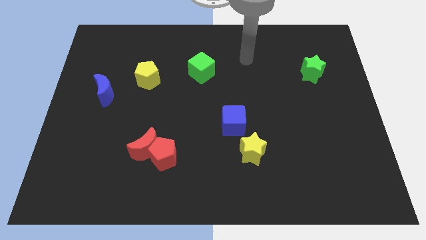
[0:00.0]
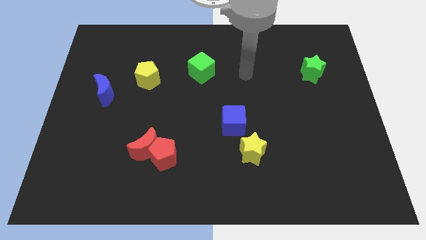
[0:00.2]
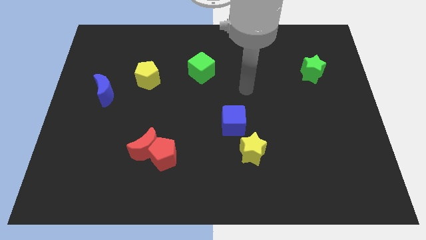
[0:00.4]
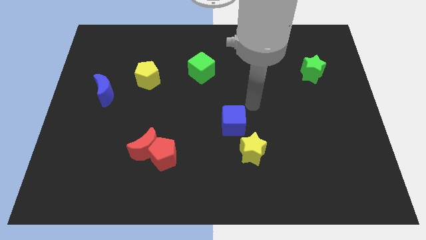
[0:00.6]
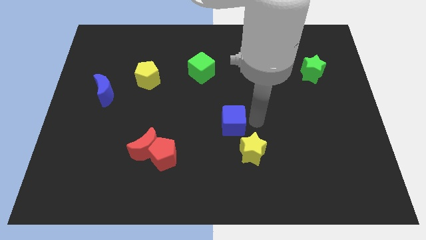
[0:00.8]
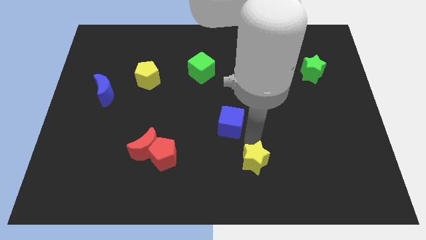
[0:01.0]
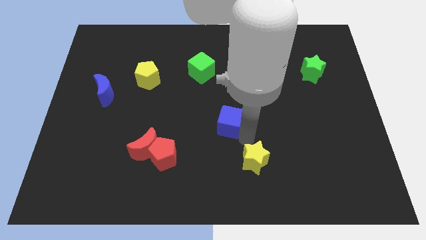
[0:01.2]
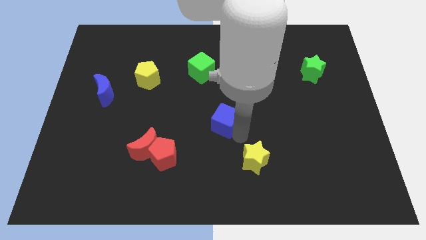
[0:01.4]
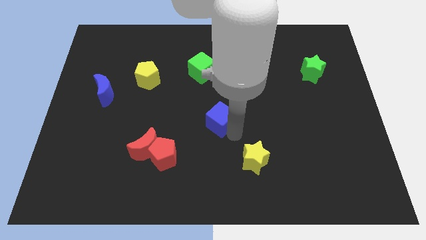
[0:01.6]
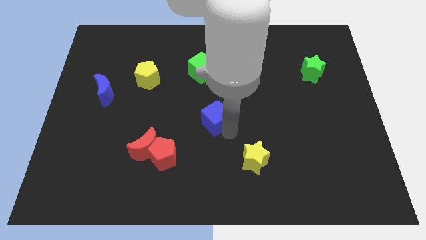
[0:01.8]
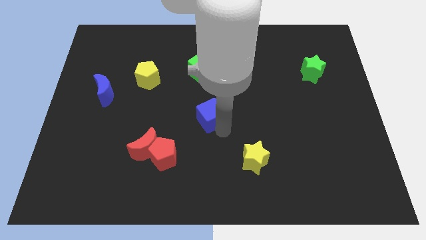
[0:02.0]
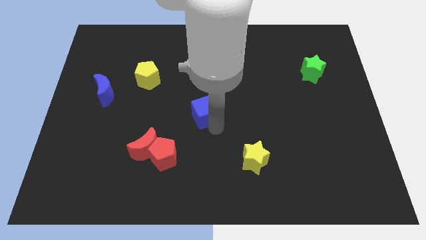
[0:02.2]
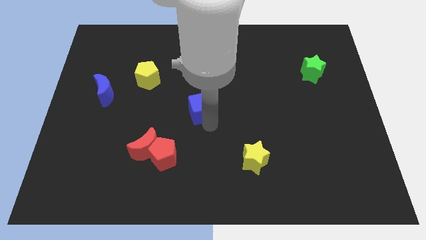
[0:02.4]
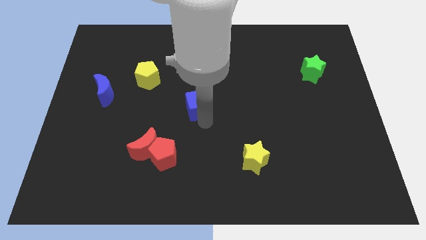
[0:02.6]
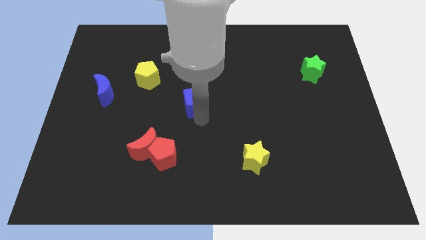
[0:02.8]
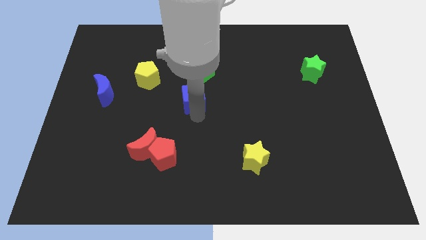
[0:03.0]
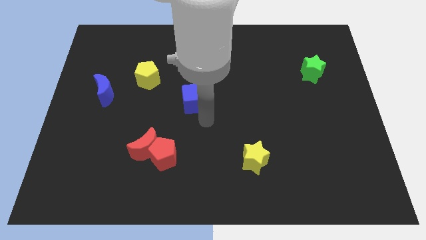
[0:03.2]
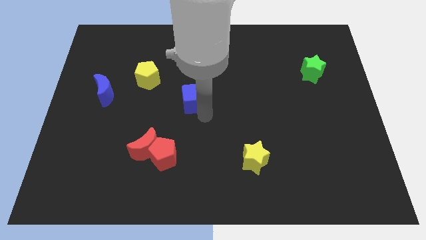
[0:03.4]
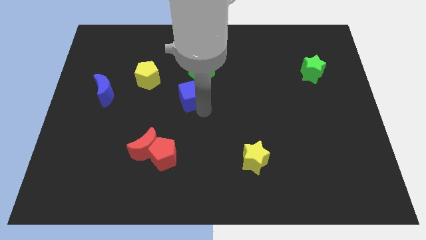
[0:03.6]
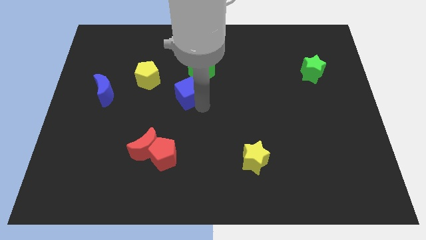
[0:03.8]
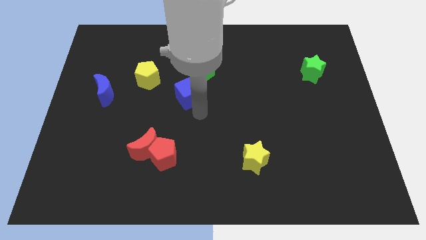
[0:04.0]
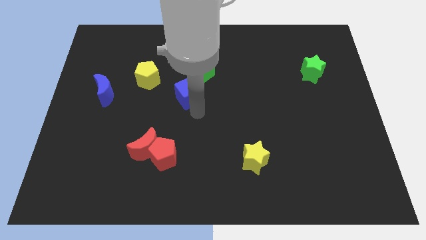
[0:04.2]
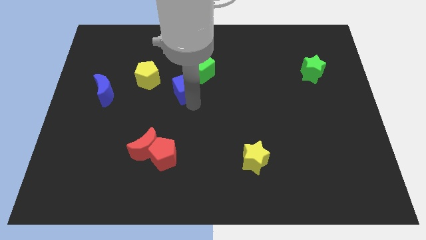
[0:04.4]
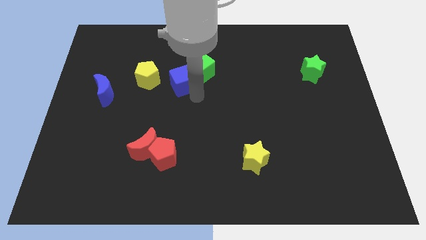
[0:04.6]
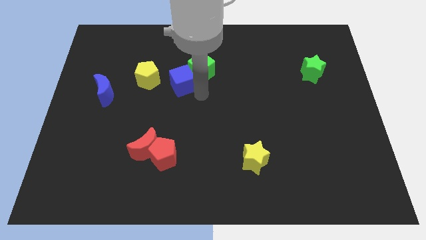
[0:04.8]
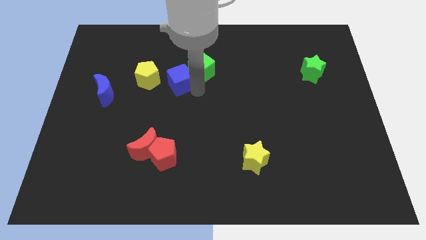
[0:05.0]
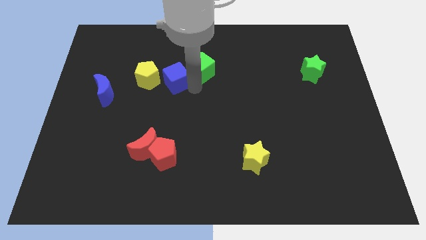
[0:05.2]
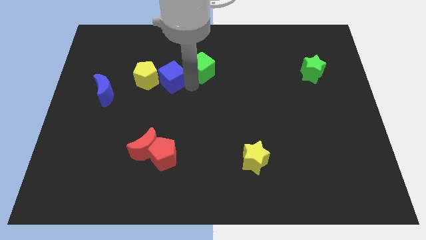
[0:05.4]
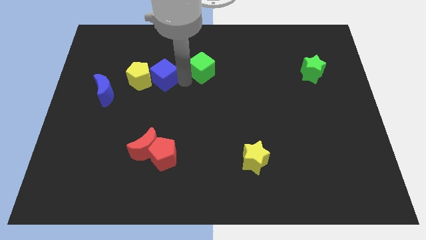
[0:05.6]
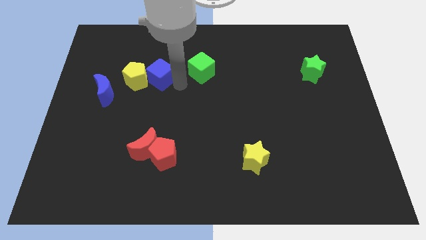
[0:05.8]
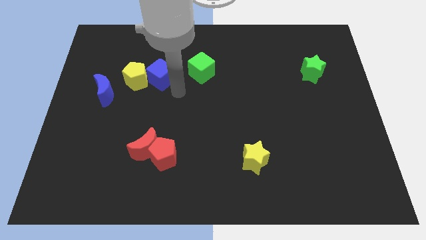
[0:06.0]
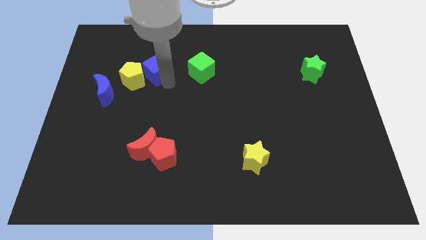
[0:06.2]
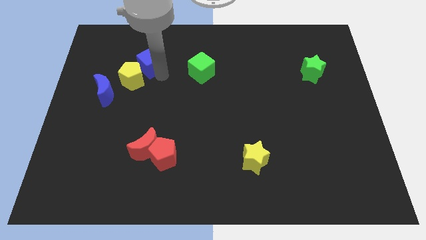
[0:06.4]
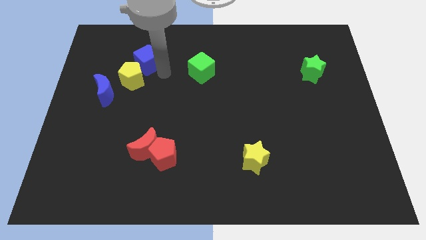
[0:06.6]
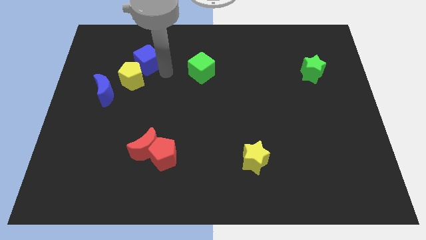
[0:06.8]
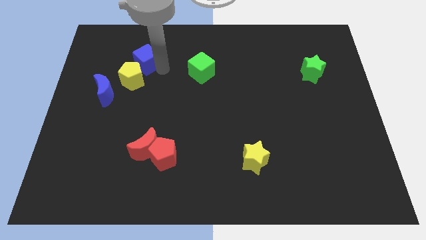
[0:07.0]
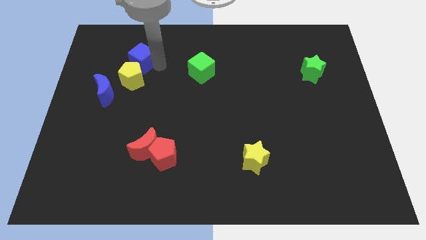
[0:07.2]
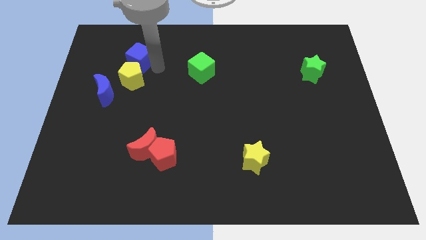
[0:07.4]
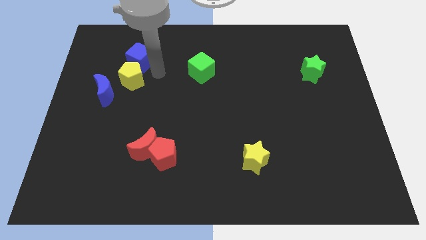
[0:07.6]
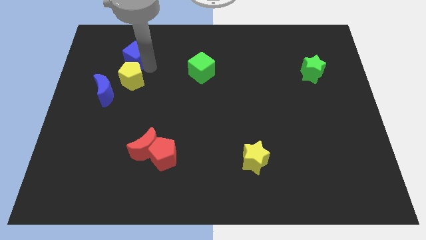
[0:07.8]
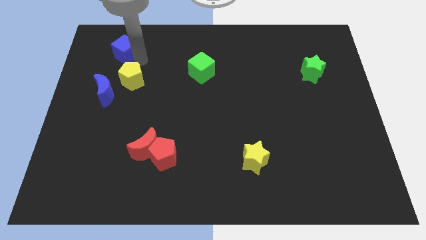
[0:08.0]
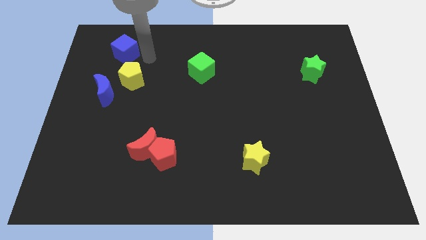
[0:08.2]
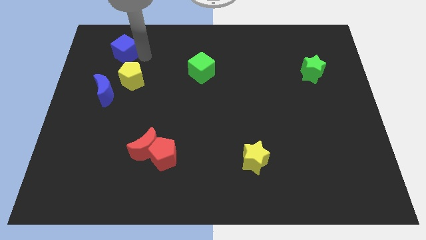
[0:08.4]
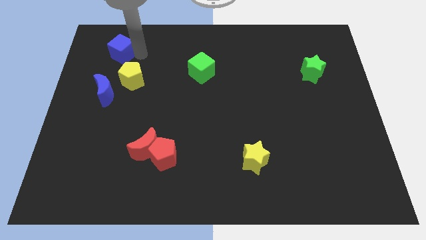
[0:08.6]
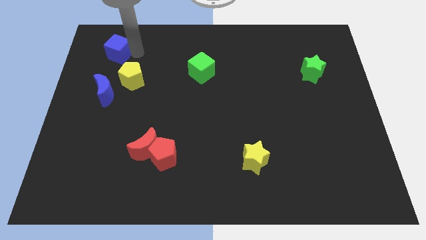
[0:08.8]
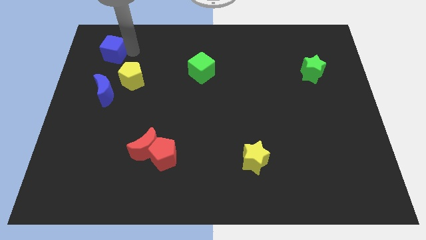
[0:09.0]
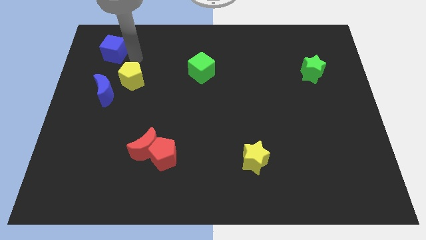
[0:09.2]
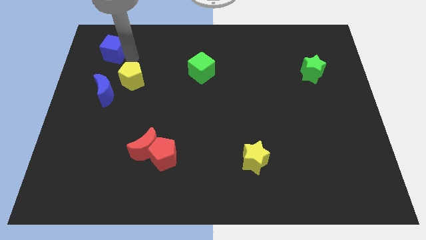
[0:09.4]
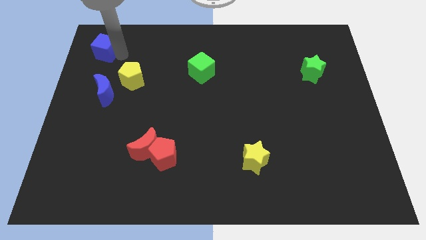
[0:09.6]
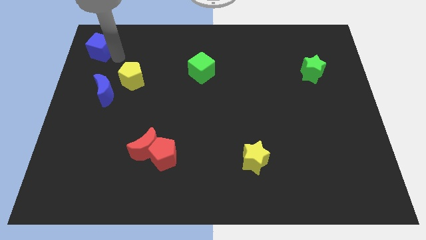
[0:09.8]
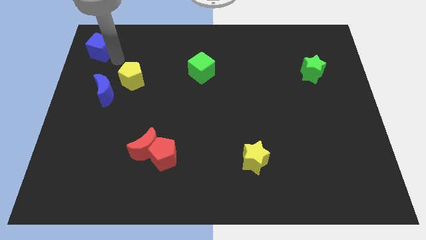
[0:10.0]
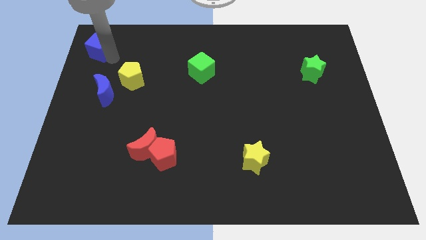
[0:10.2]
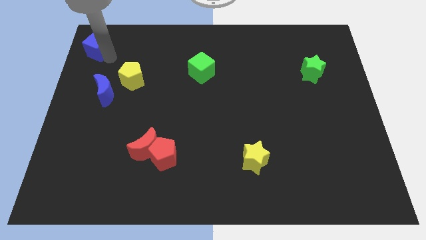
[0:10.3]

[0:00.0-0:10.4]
push the blue cube to the top left
